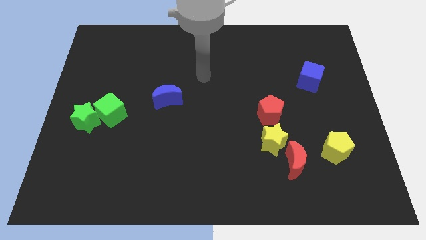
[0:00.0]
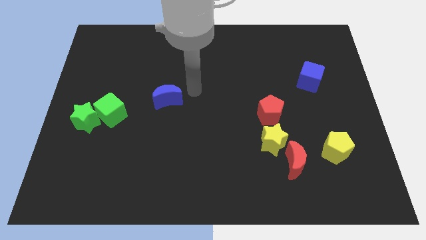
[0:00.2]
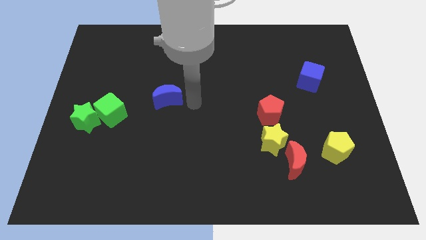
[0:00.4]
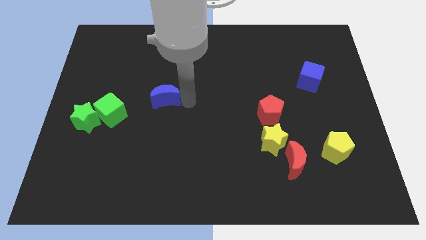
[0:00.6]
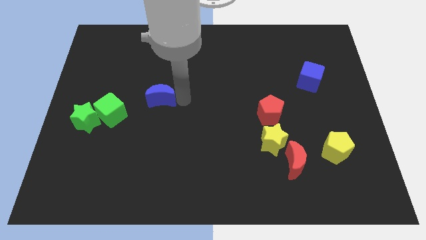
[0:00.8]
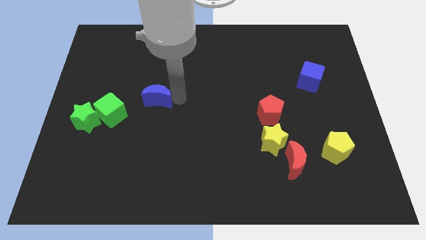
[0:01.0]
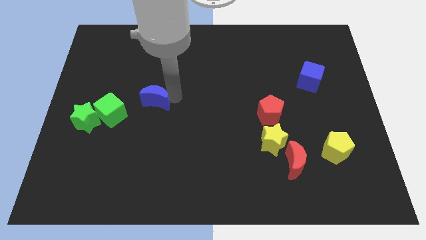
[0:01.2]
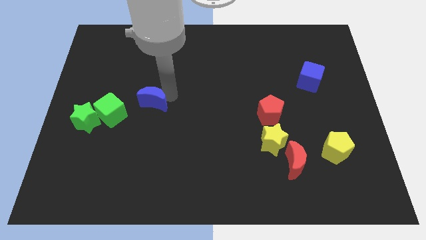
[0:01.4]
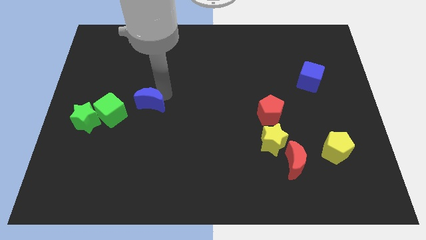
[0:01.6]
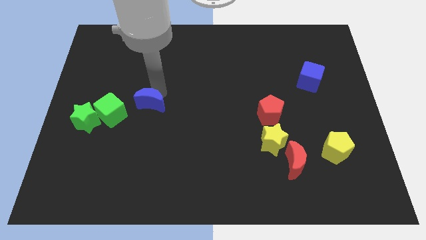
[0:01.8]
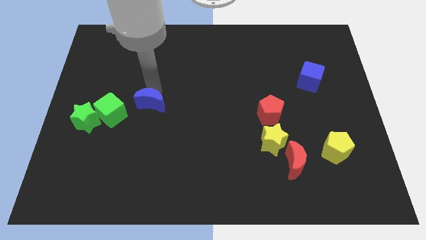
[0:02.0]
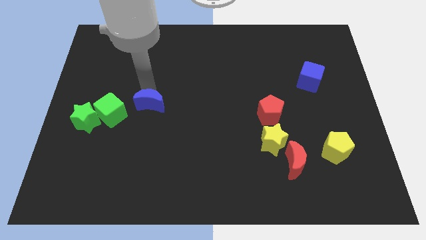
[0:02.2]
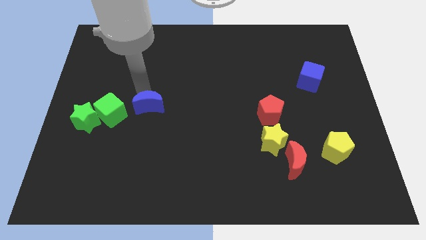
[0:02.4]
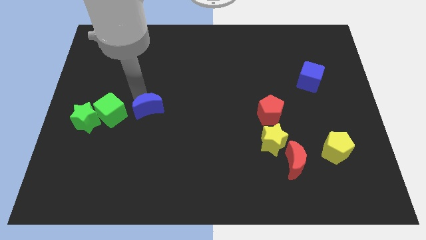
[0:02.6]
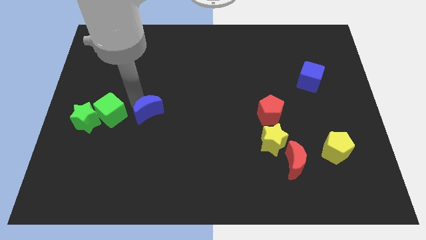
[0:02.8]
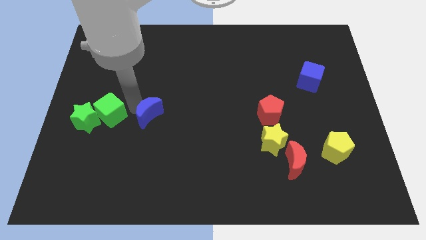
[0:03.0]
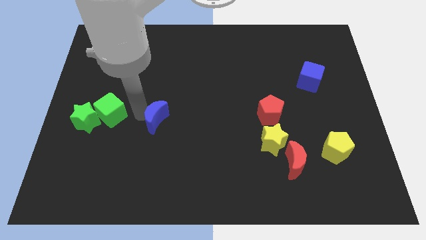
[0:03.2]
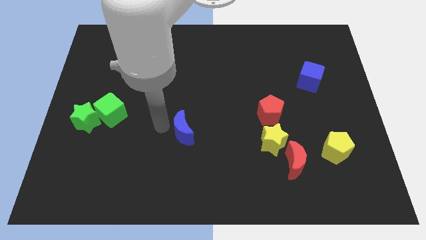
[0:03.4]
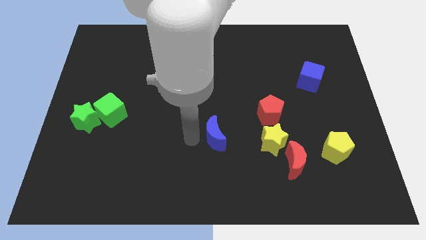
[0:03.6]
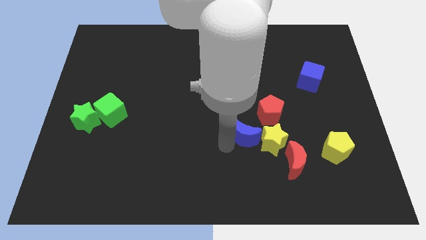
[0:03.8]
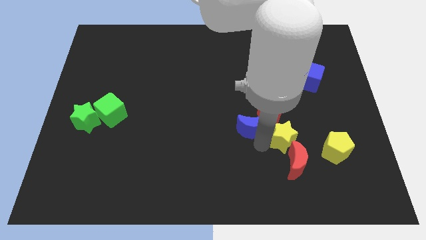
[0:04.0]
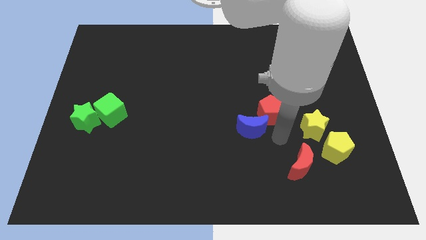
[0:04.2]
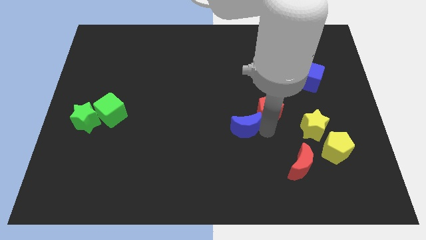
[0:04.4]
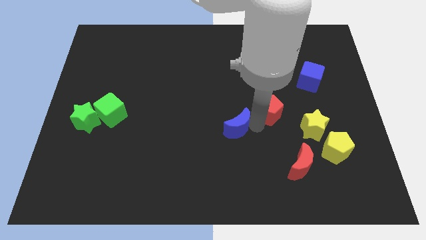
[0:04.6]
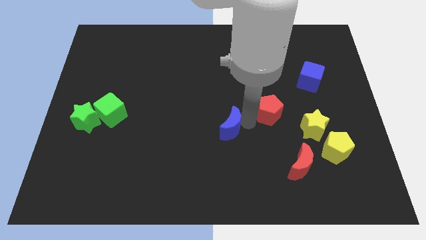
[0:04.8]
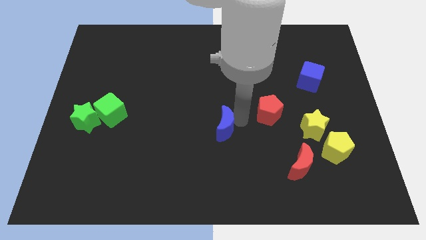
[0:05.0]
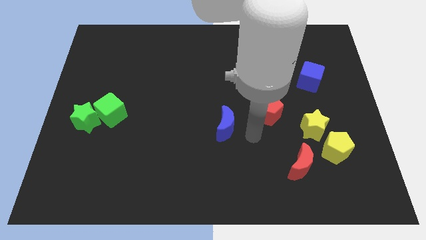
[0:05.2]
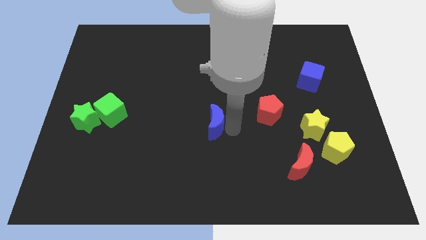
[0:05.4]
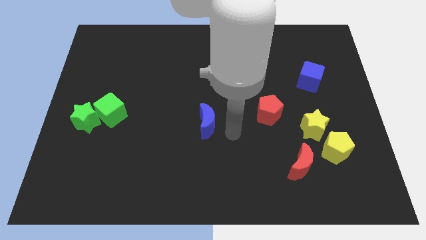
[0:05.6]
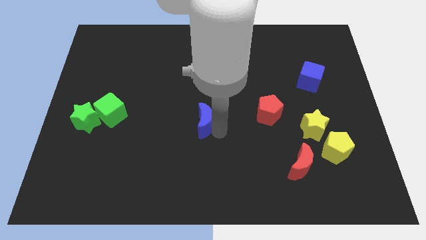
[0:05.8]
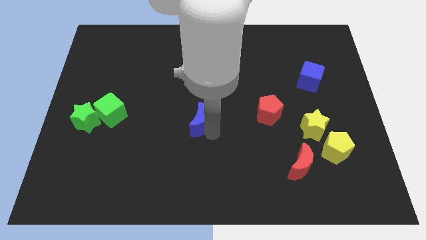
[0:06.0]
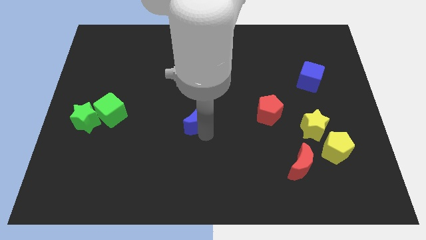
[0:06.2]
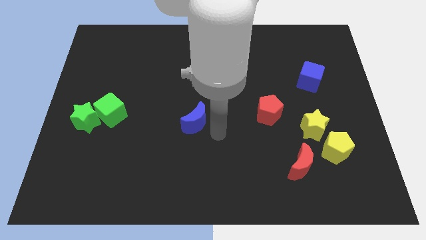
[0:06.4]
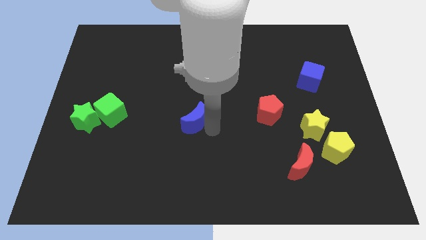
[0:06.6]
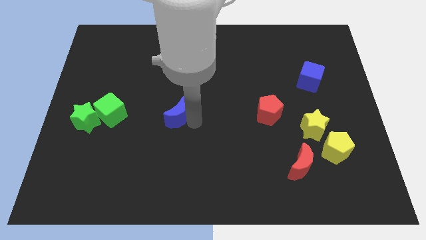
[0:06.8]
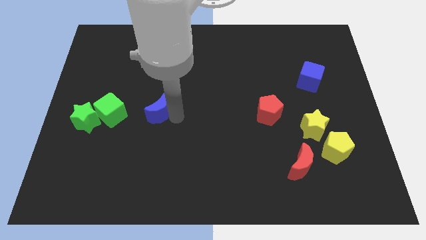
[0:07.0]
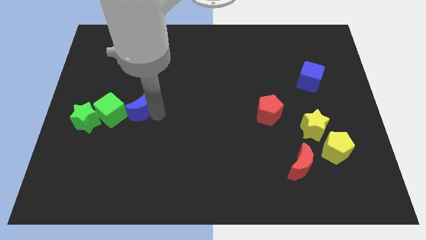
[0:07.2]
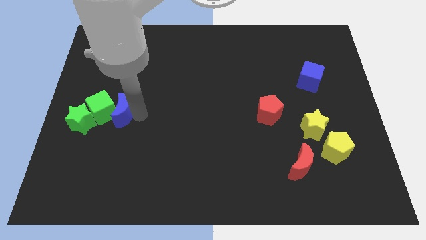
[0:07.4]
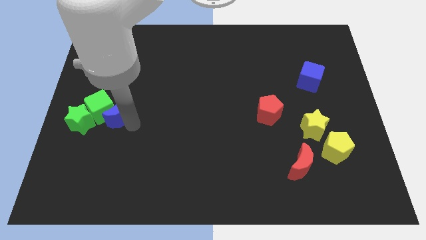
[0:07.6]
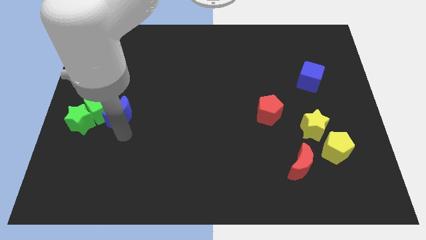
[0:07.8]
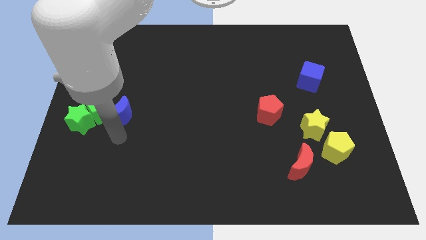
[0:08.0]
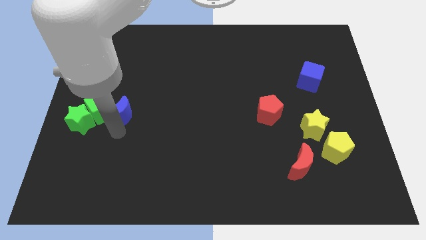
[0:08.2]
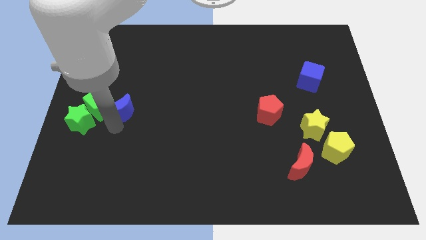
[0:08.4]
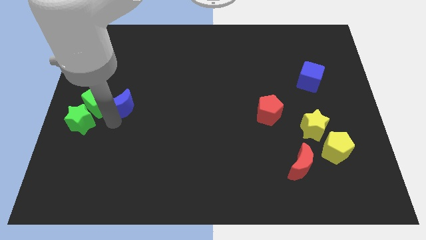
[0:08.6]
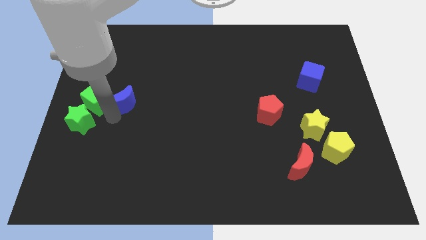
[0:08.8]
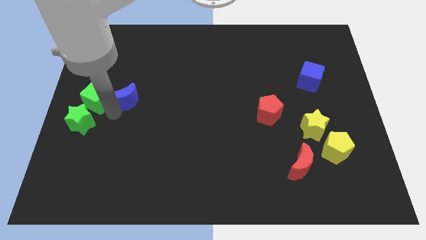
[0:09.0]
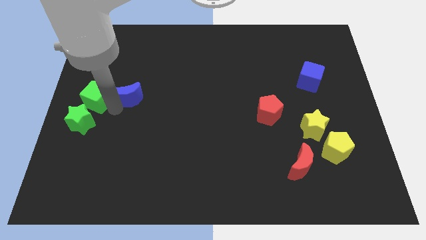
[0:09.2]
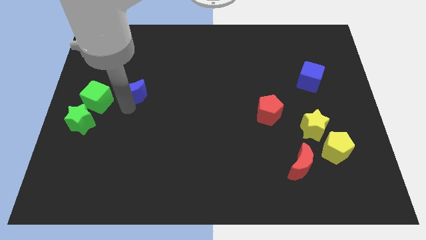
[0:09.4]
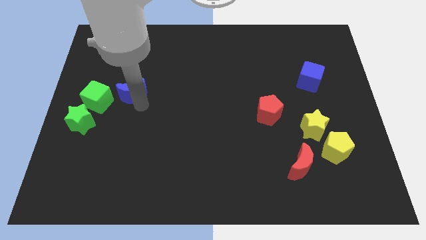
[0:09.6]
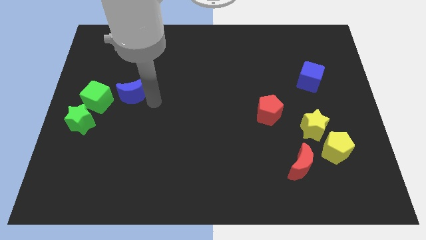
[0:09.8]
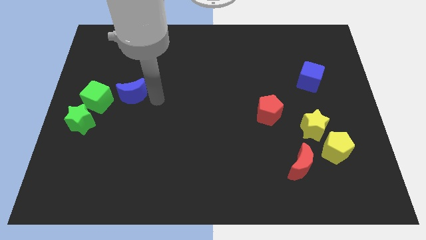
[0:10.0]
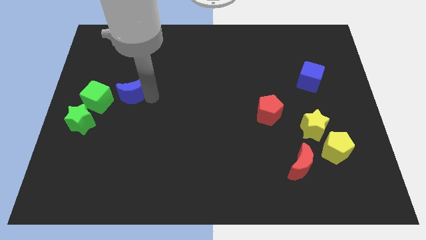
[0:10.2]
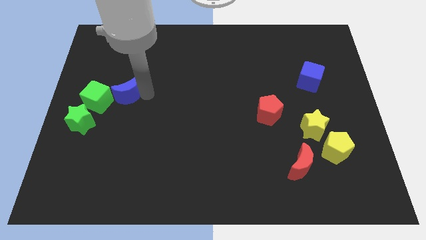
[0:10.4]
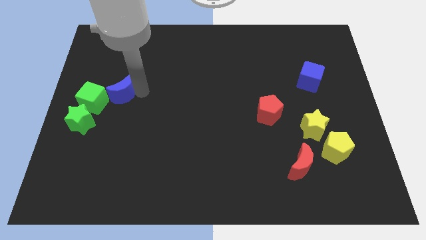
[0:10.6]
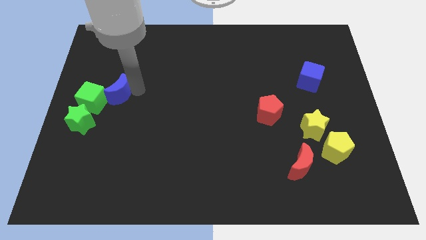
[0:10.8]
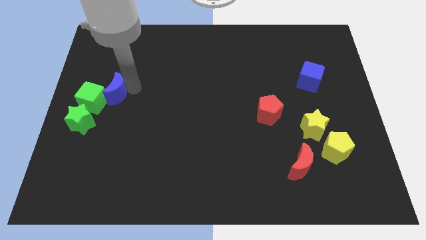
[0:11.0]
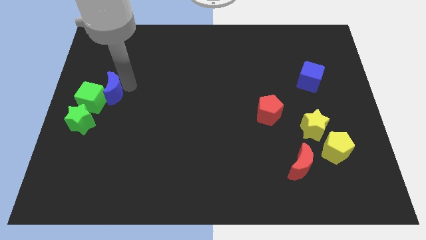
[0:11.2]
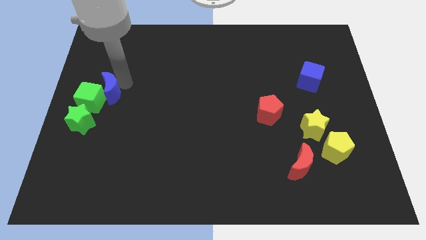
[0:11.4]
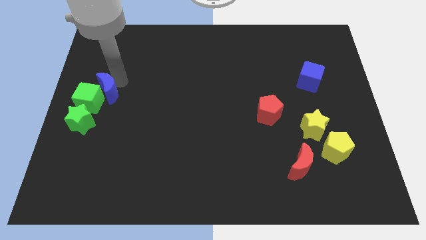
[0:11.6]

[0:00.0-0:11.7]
push the blue moon to the center left
